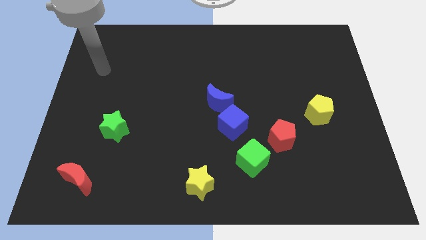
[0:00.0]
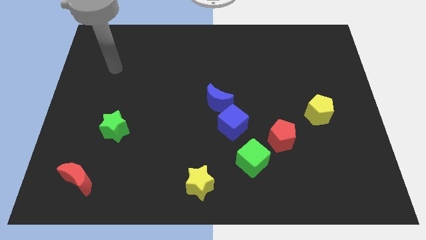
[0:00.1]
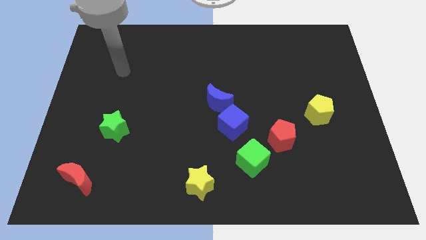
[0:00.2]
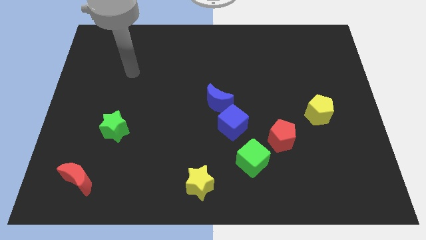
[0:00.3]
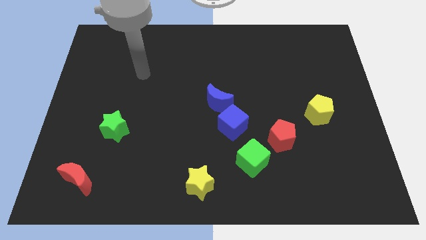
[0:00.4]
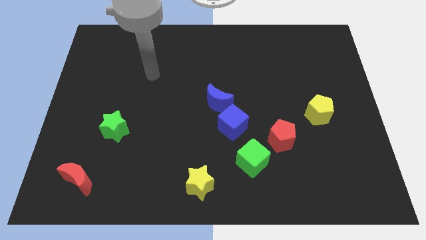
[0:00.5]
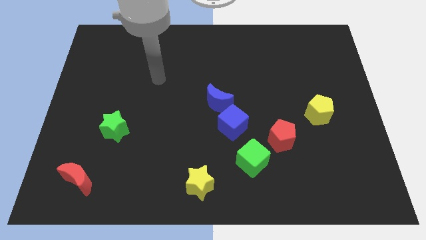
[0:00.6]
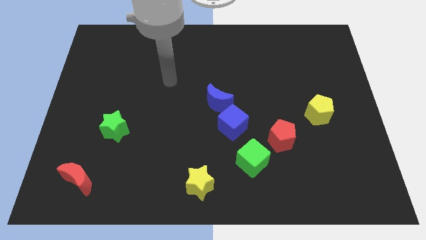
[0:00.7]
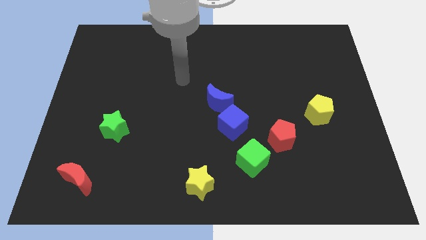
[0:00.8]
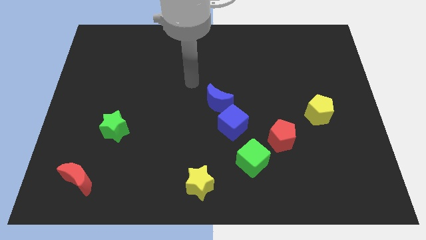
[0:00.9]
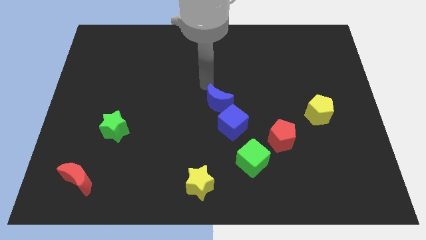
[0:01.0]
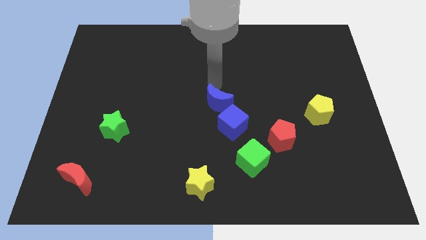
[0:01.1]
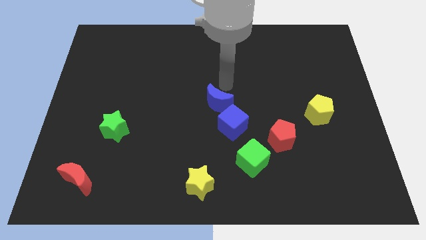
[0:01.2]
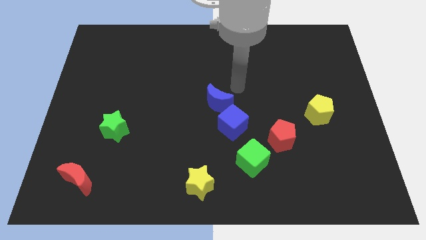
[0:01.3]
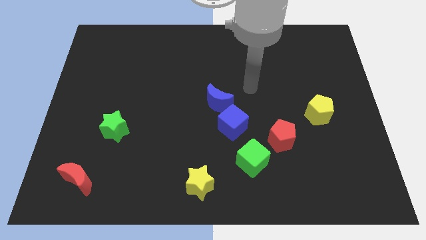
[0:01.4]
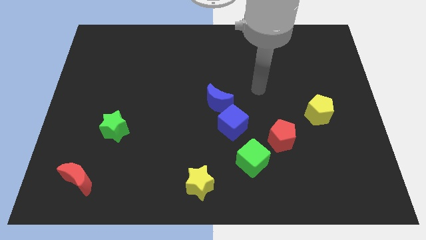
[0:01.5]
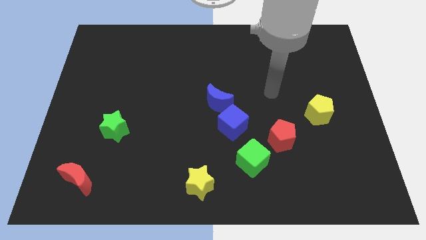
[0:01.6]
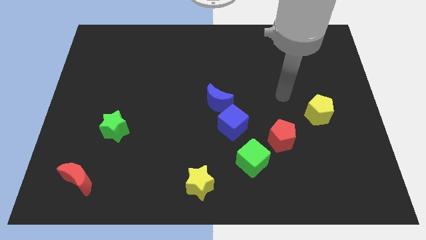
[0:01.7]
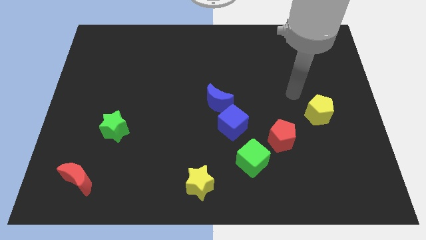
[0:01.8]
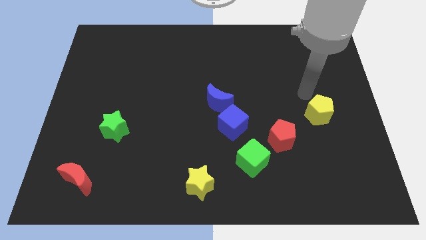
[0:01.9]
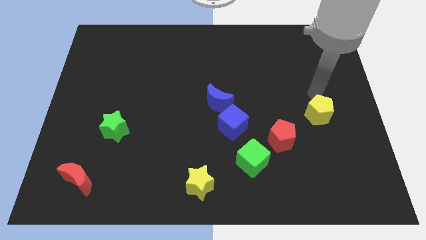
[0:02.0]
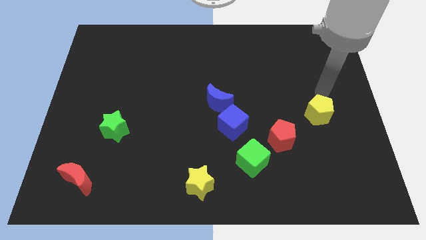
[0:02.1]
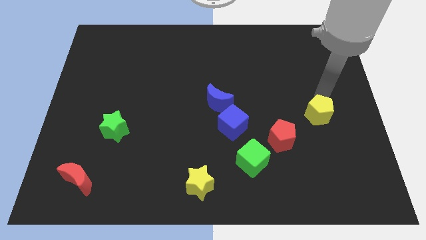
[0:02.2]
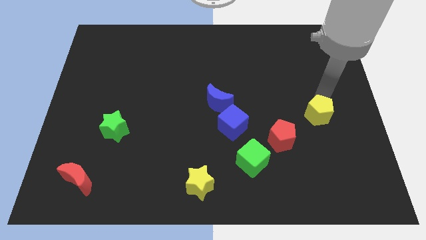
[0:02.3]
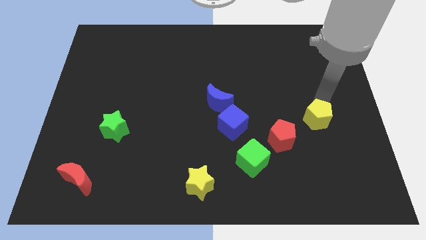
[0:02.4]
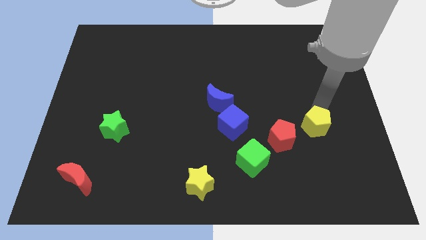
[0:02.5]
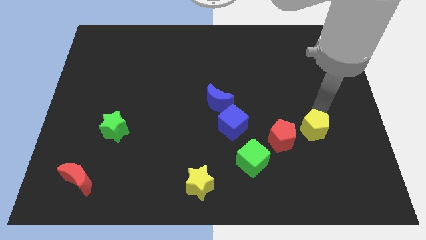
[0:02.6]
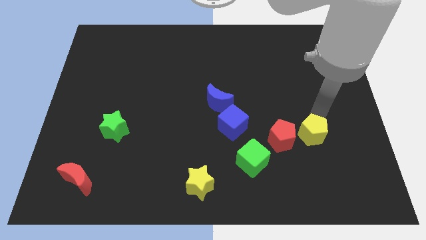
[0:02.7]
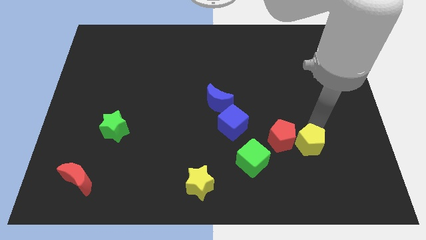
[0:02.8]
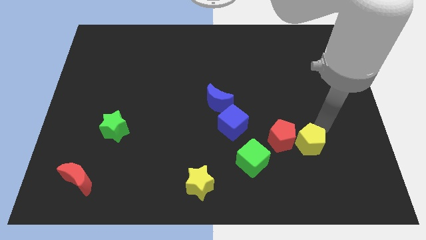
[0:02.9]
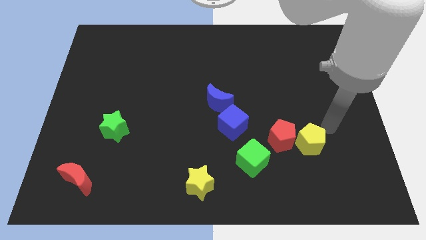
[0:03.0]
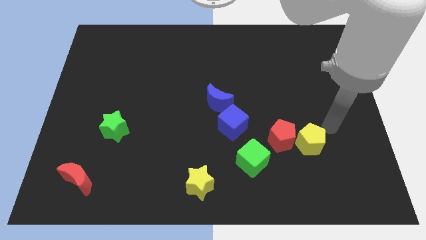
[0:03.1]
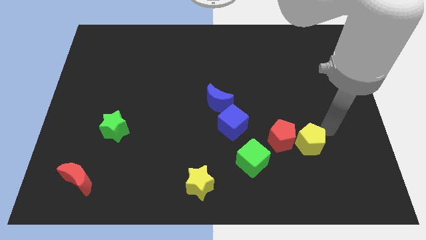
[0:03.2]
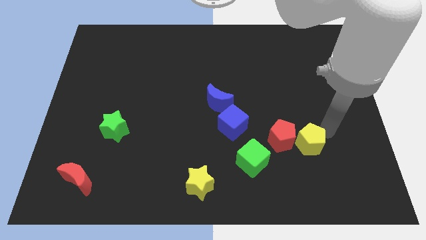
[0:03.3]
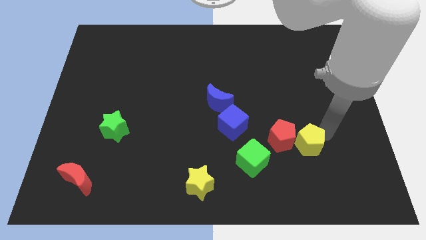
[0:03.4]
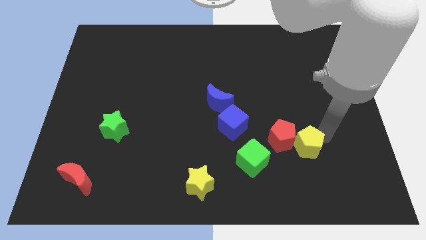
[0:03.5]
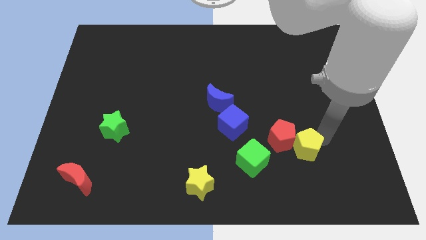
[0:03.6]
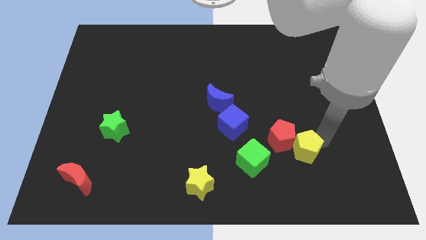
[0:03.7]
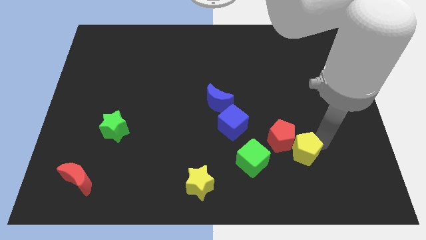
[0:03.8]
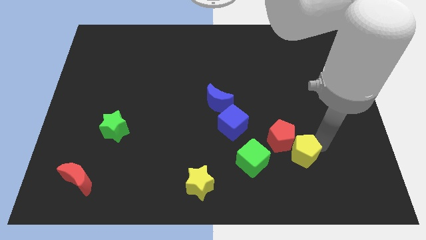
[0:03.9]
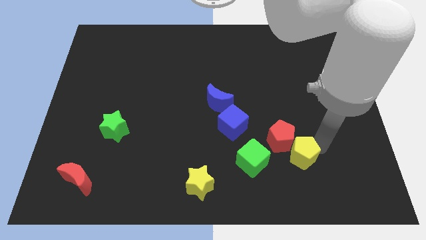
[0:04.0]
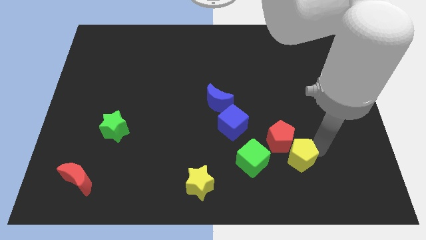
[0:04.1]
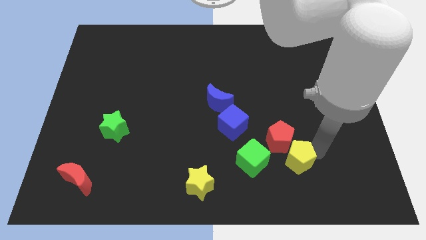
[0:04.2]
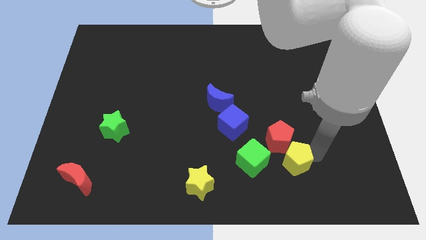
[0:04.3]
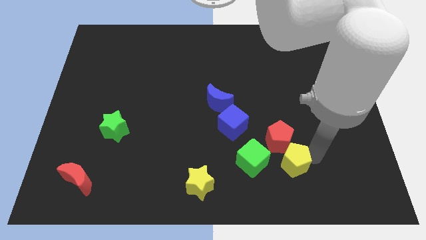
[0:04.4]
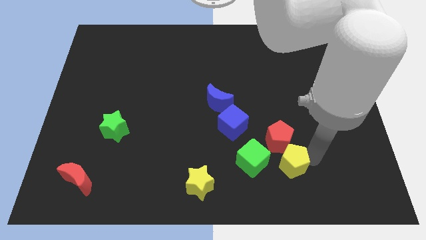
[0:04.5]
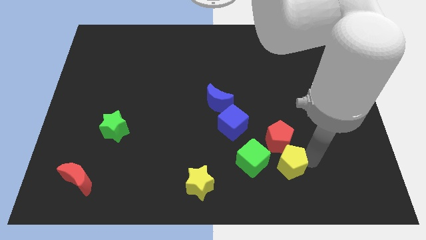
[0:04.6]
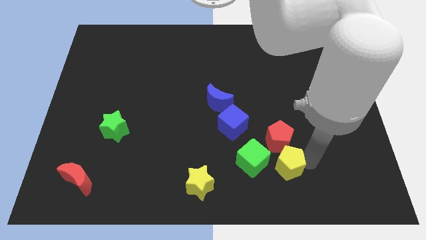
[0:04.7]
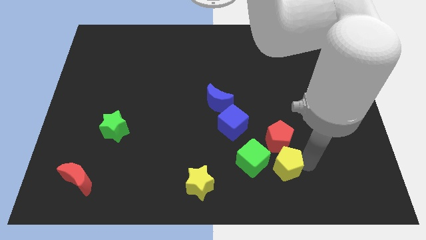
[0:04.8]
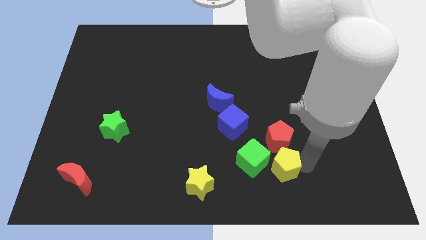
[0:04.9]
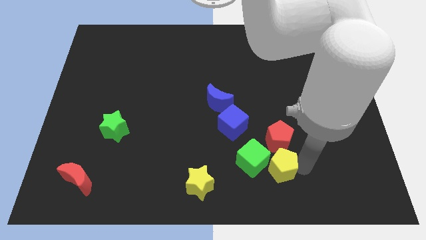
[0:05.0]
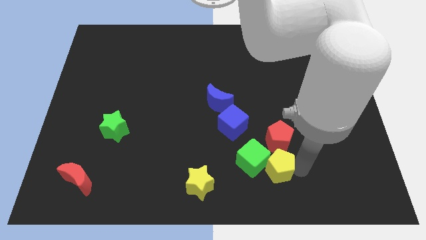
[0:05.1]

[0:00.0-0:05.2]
move the yellow pentagon next to the green cube
